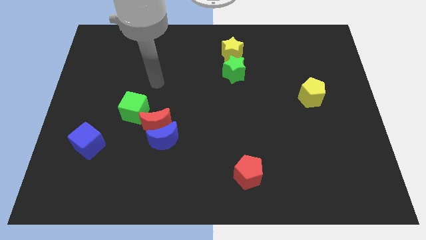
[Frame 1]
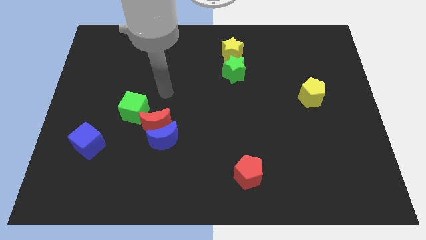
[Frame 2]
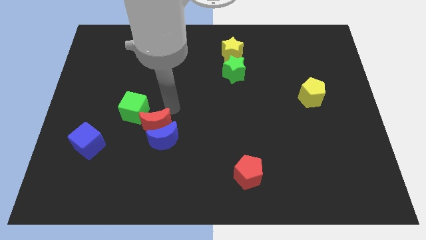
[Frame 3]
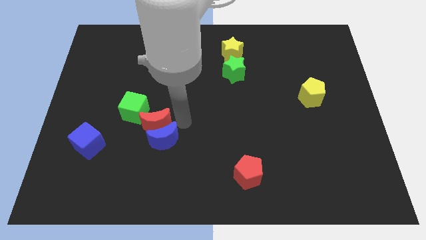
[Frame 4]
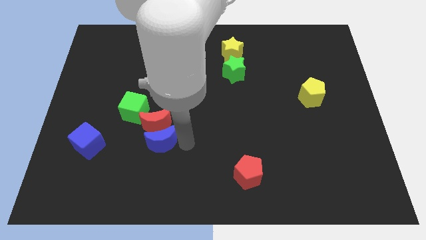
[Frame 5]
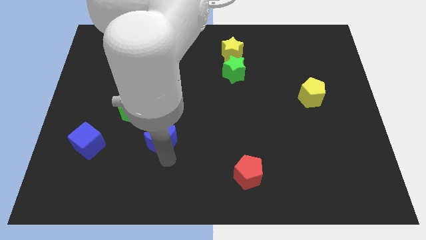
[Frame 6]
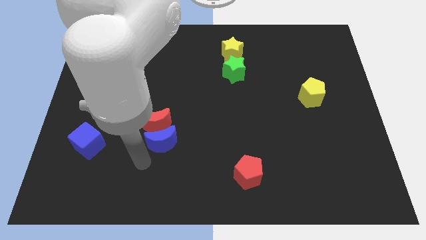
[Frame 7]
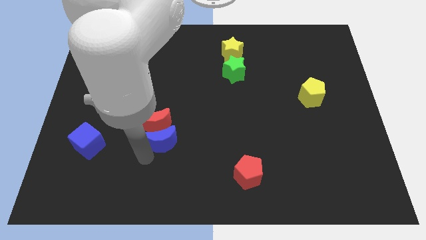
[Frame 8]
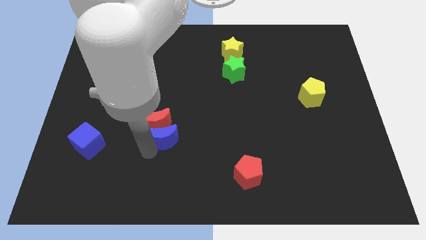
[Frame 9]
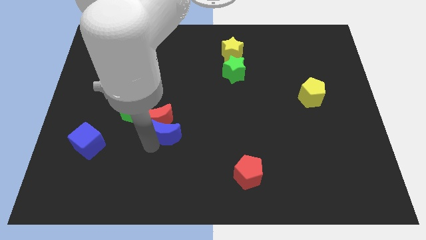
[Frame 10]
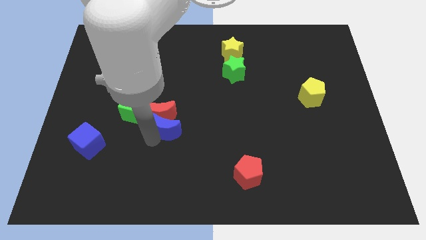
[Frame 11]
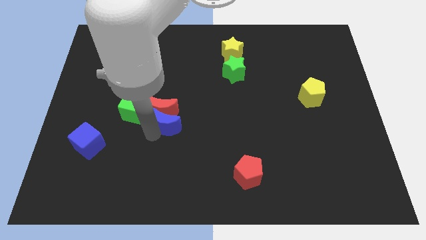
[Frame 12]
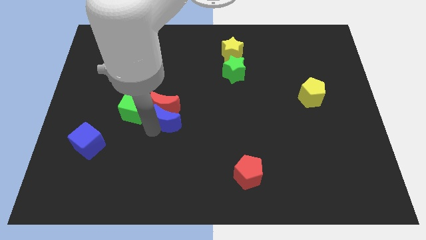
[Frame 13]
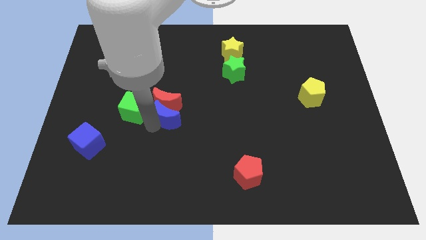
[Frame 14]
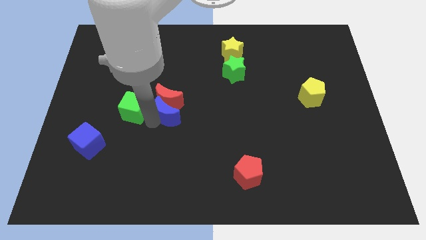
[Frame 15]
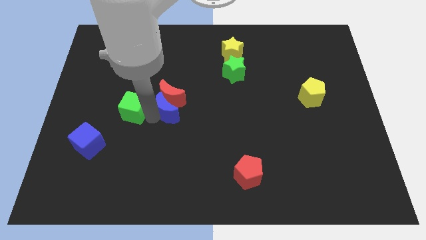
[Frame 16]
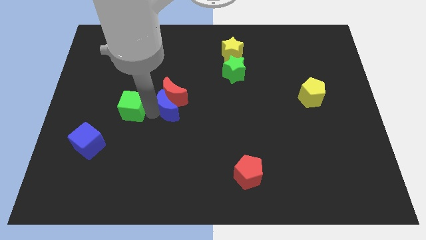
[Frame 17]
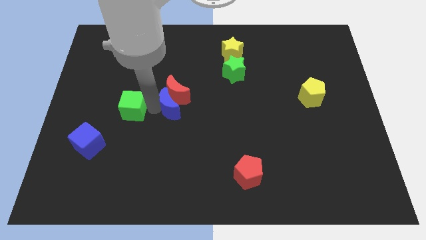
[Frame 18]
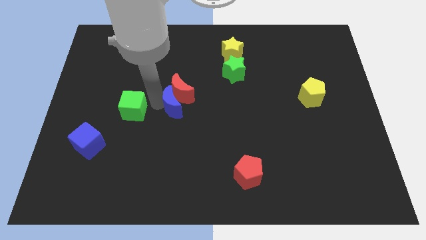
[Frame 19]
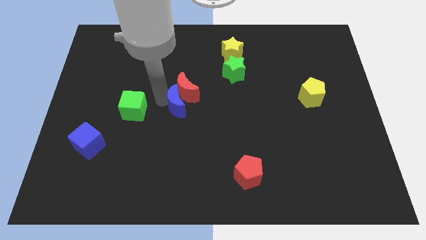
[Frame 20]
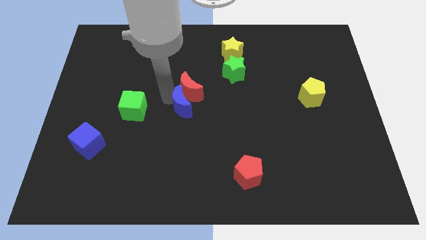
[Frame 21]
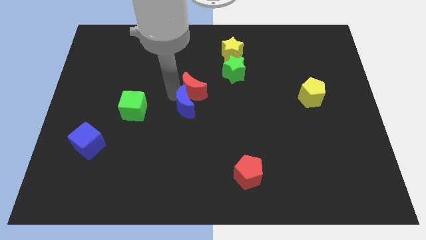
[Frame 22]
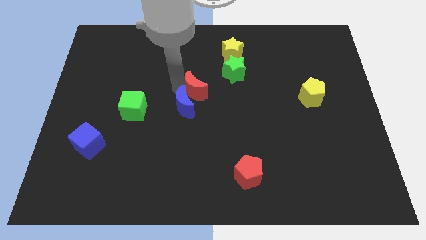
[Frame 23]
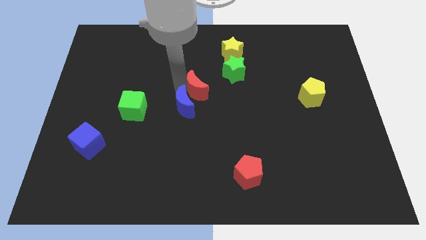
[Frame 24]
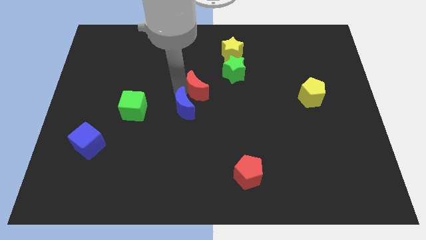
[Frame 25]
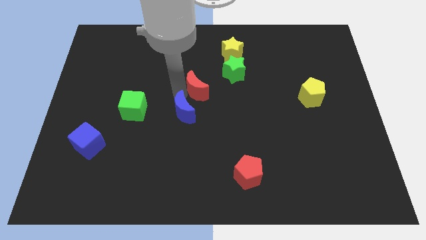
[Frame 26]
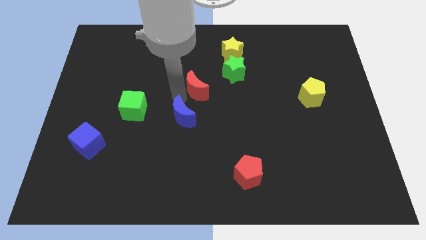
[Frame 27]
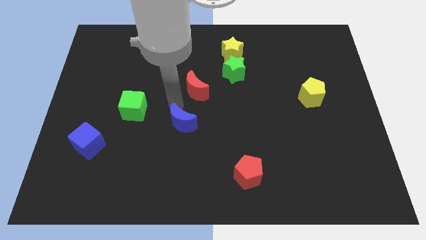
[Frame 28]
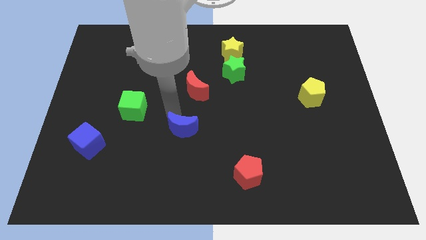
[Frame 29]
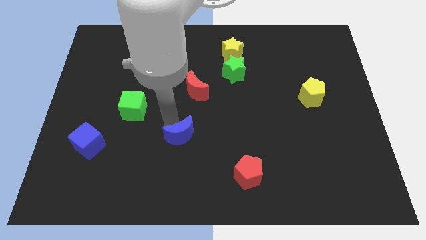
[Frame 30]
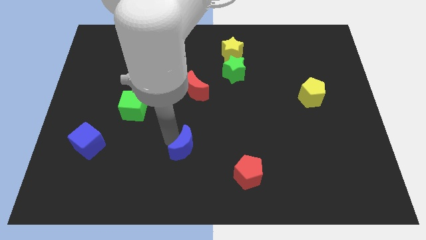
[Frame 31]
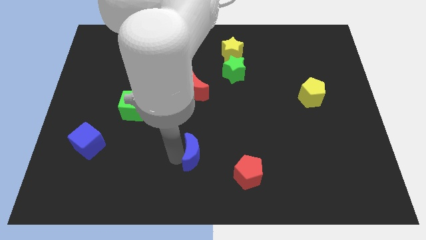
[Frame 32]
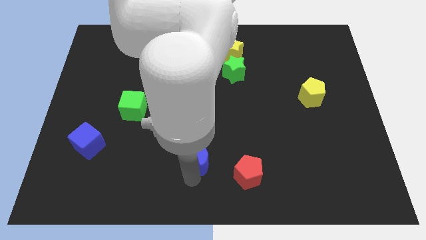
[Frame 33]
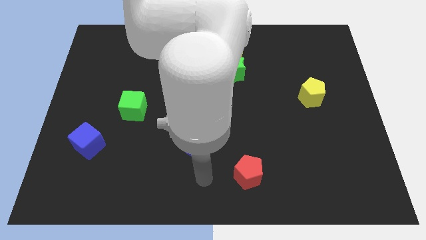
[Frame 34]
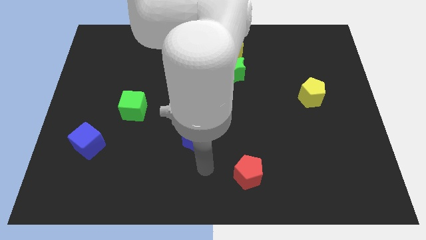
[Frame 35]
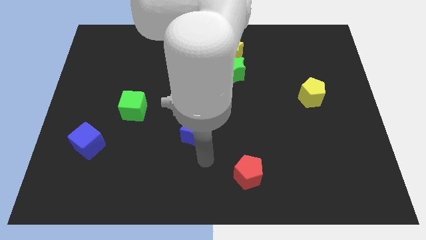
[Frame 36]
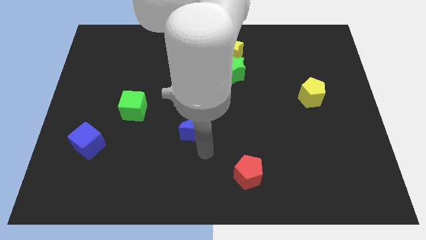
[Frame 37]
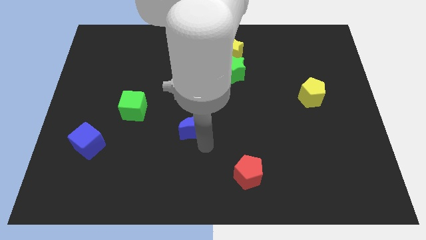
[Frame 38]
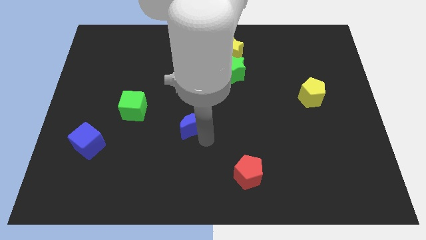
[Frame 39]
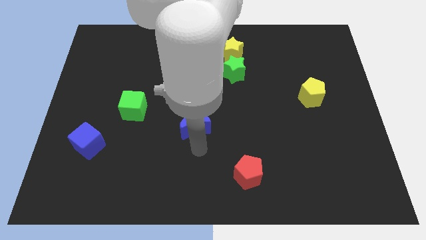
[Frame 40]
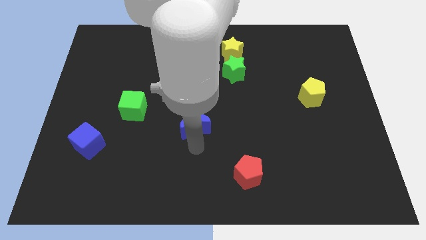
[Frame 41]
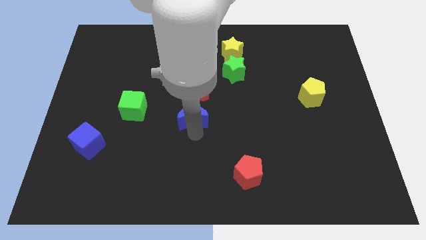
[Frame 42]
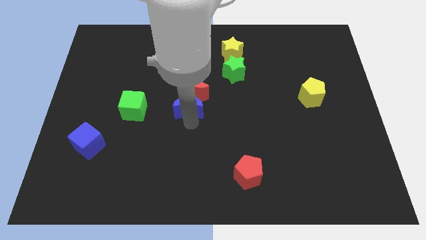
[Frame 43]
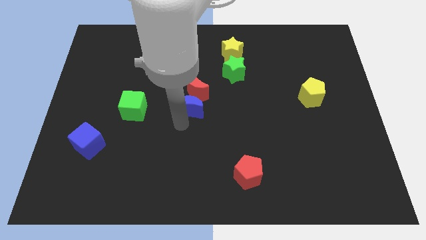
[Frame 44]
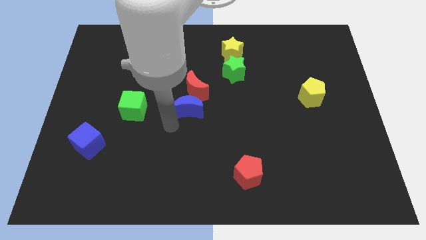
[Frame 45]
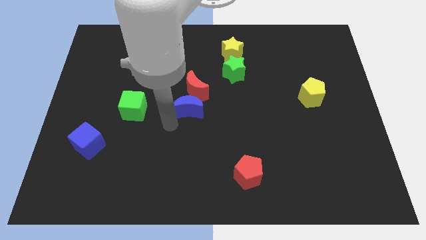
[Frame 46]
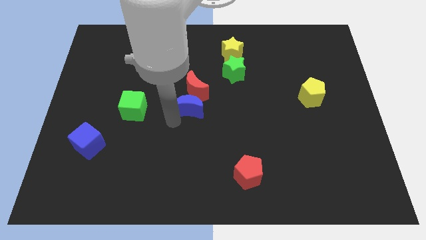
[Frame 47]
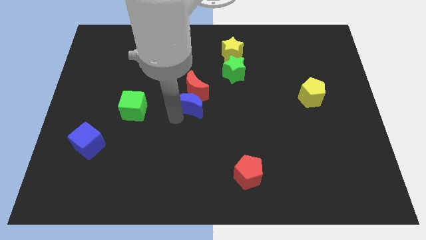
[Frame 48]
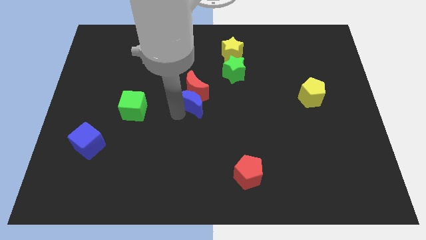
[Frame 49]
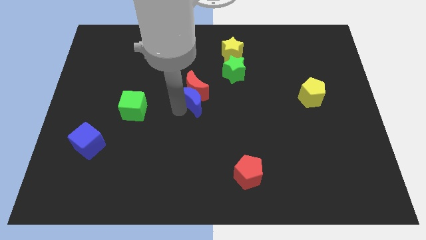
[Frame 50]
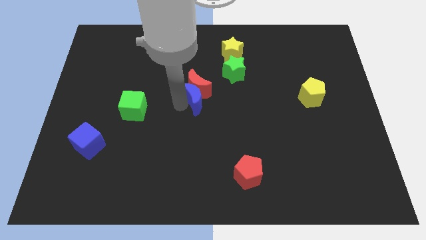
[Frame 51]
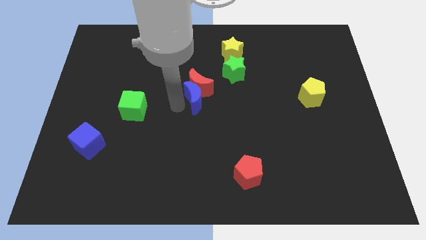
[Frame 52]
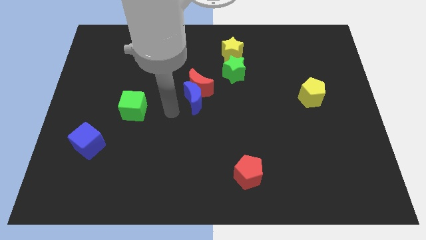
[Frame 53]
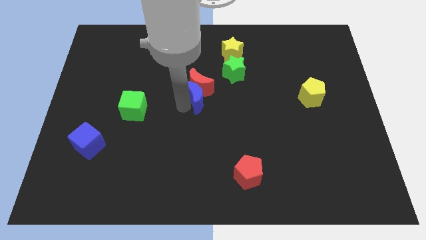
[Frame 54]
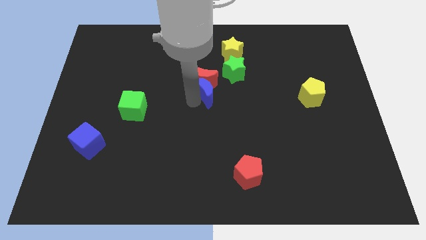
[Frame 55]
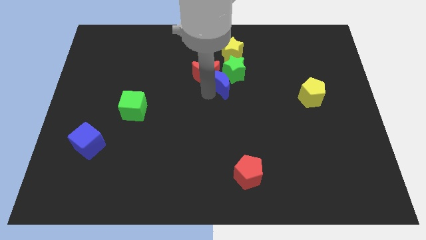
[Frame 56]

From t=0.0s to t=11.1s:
push the blue moon next to the green star

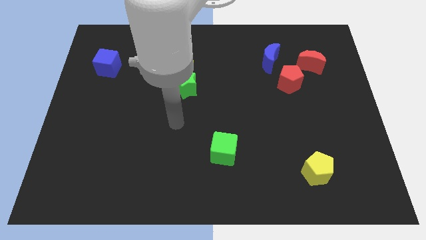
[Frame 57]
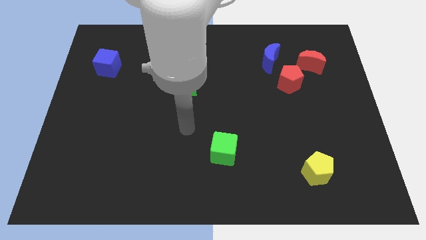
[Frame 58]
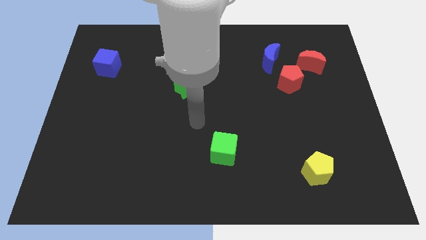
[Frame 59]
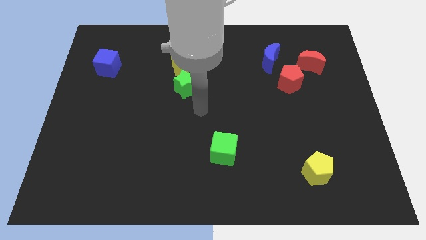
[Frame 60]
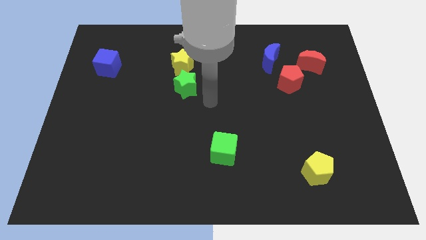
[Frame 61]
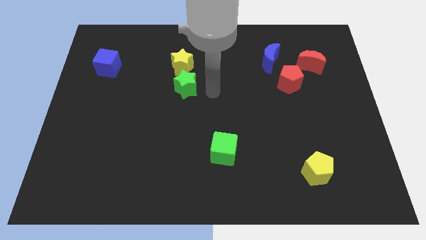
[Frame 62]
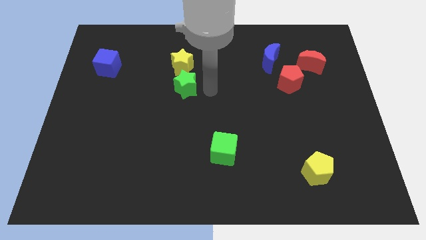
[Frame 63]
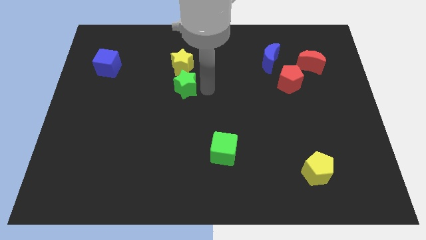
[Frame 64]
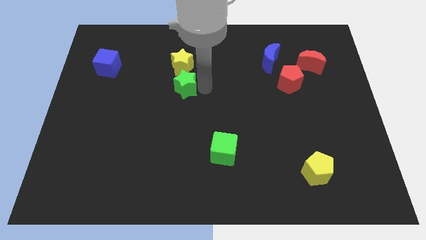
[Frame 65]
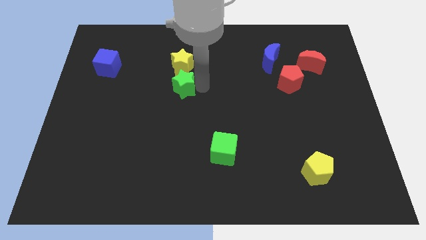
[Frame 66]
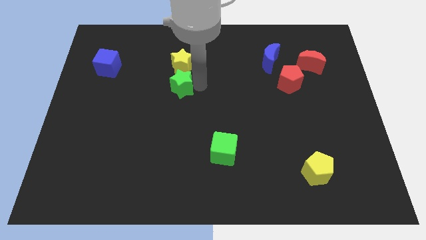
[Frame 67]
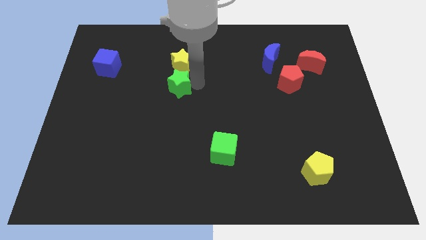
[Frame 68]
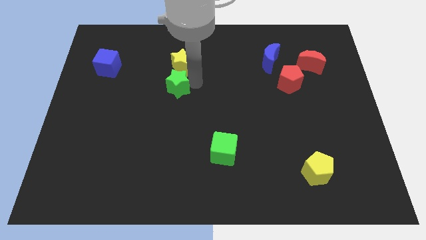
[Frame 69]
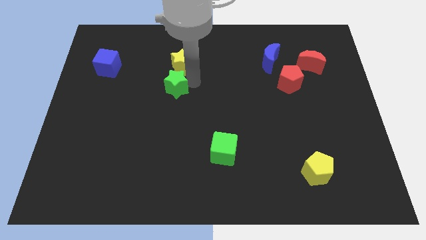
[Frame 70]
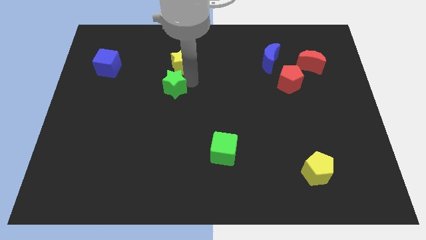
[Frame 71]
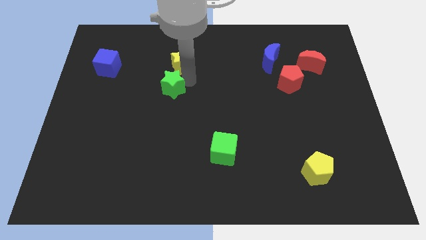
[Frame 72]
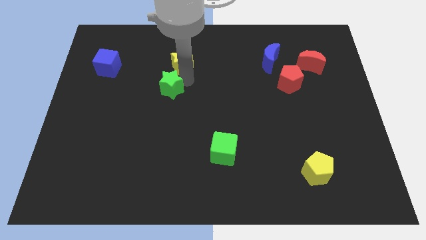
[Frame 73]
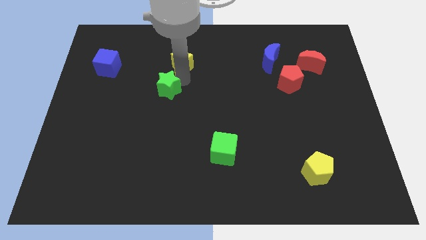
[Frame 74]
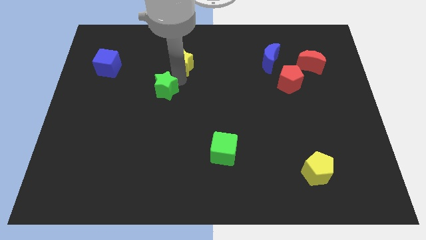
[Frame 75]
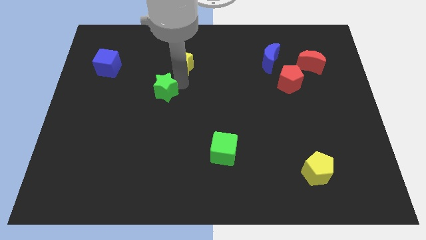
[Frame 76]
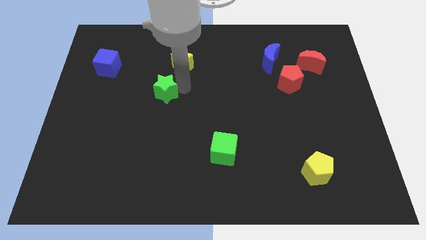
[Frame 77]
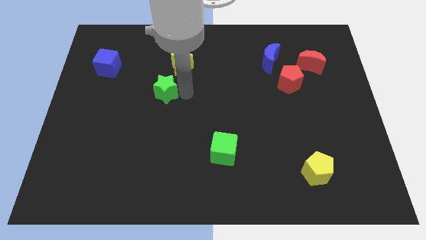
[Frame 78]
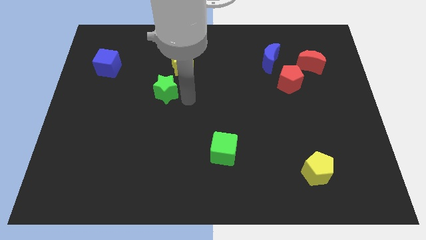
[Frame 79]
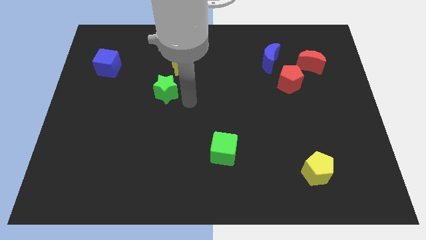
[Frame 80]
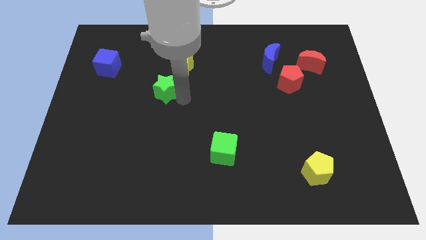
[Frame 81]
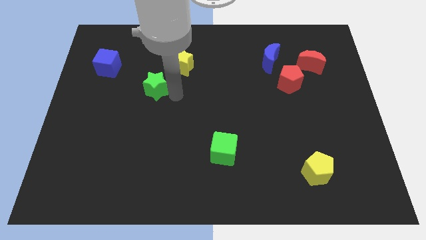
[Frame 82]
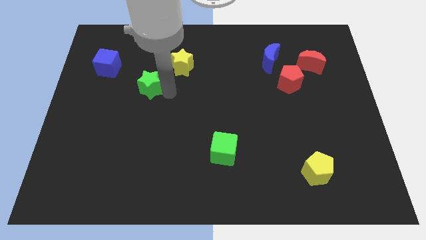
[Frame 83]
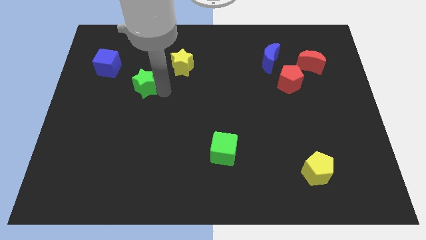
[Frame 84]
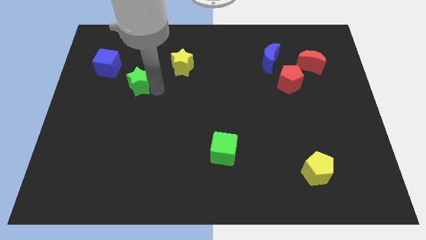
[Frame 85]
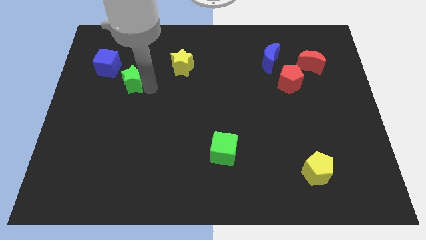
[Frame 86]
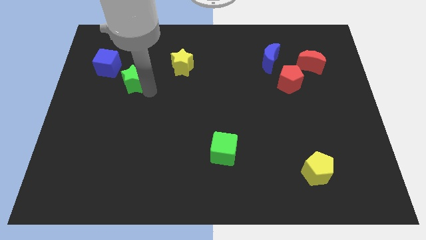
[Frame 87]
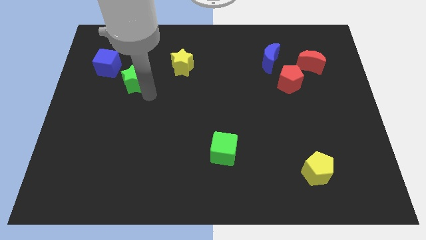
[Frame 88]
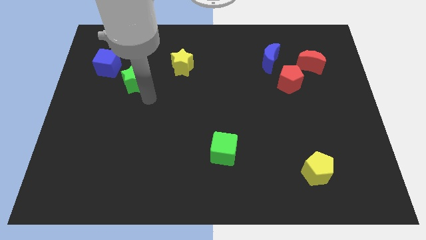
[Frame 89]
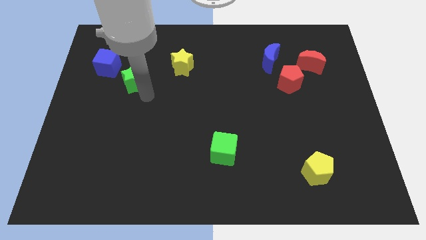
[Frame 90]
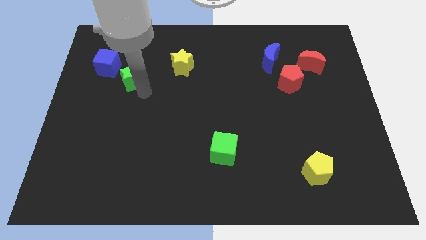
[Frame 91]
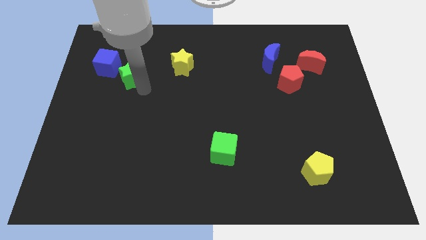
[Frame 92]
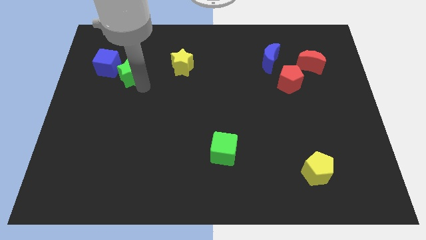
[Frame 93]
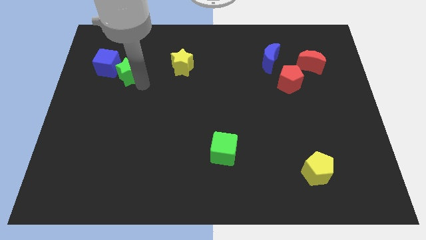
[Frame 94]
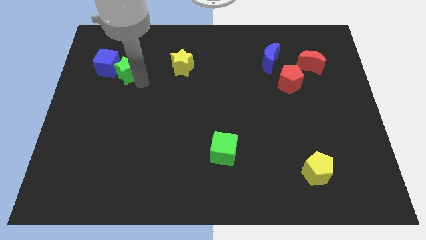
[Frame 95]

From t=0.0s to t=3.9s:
move the green star to the blue cube
